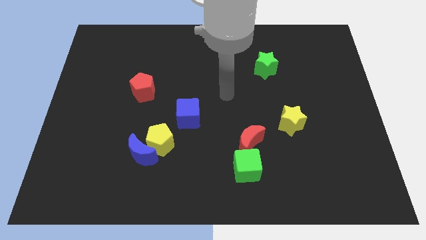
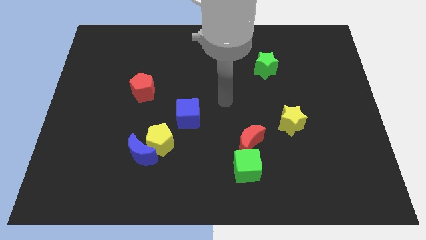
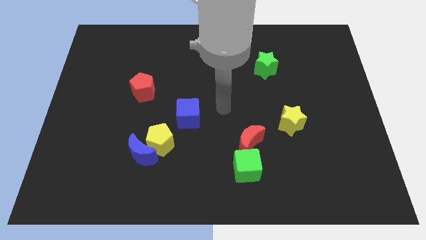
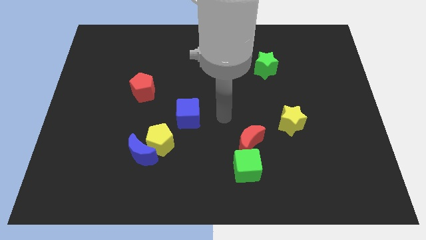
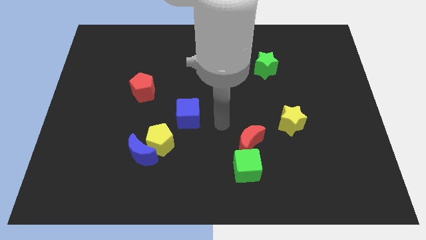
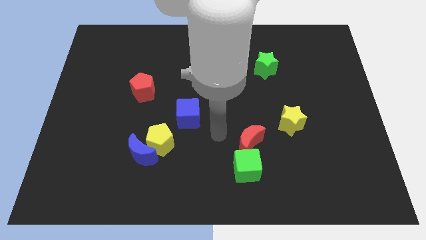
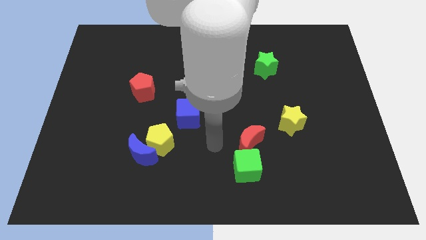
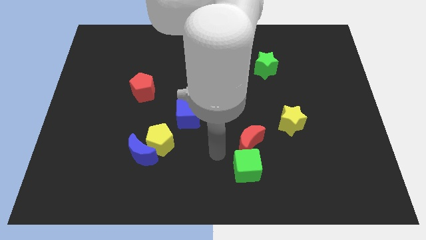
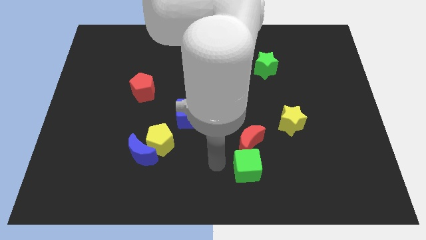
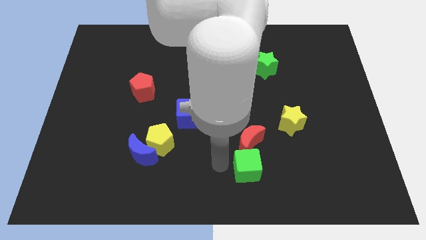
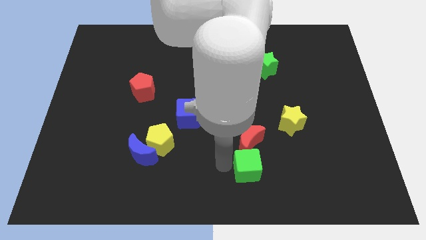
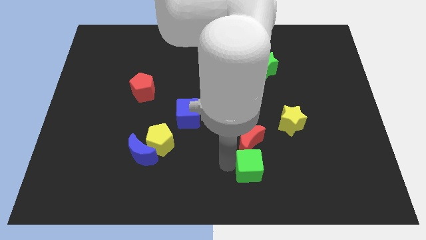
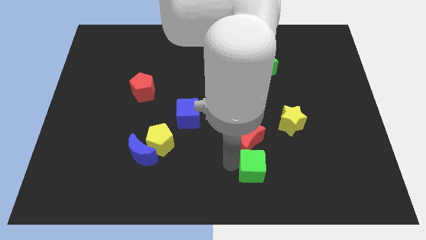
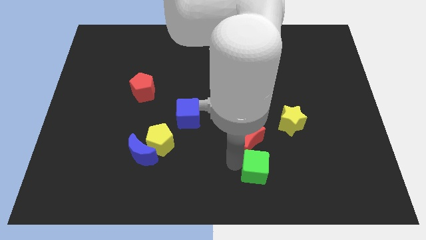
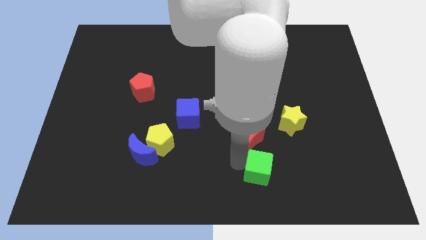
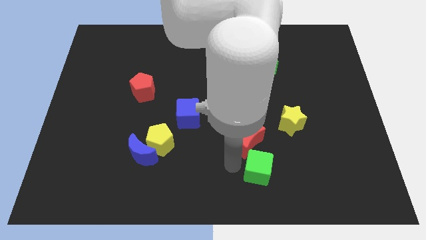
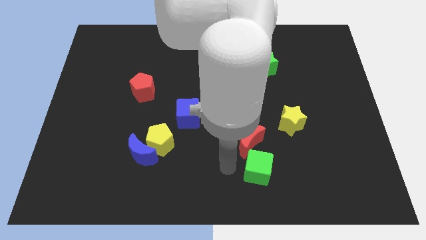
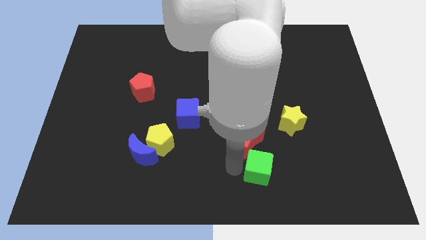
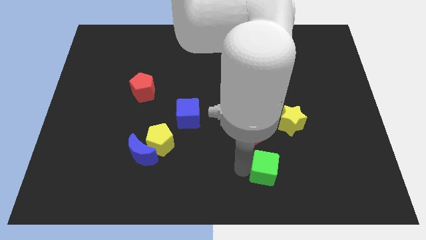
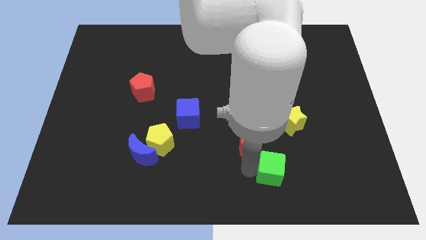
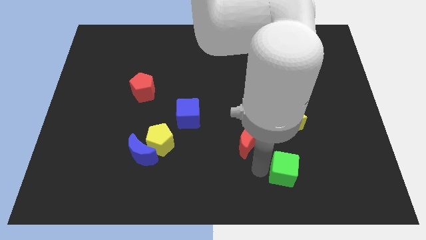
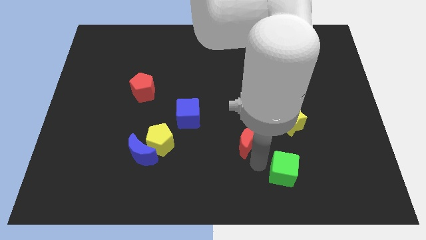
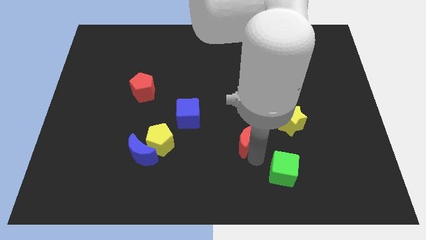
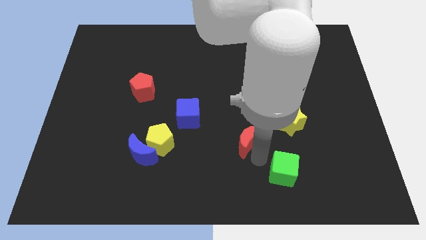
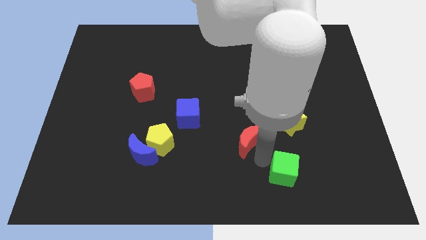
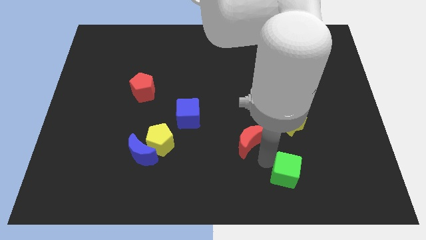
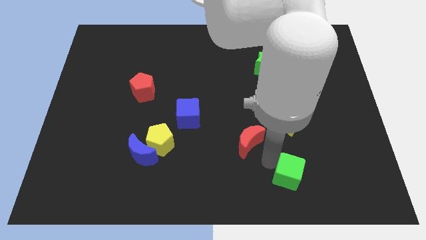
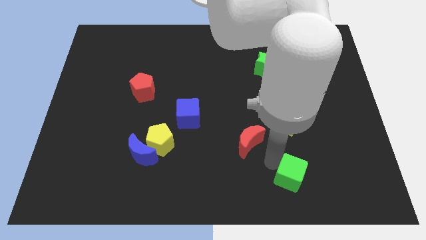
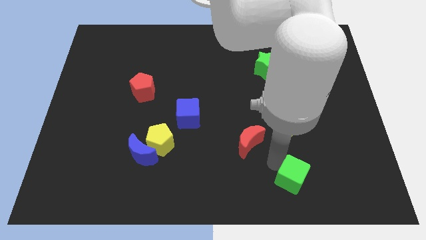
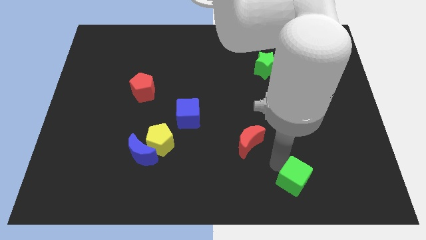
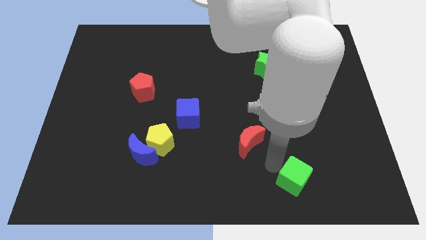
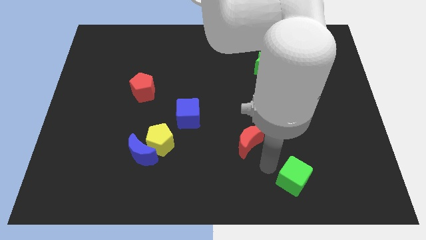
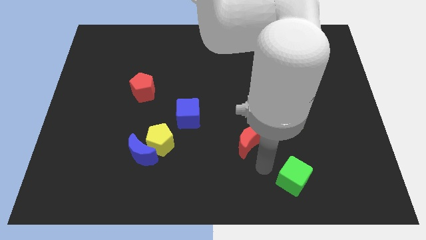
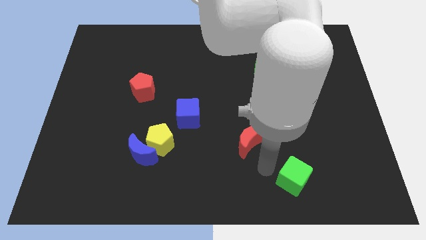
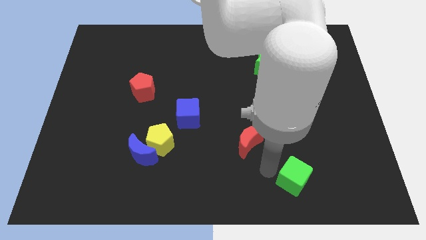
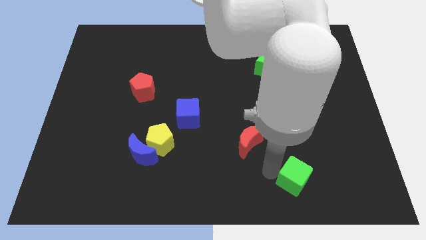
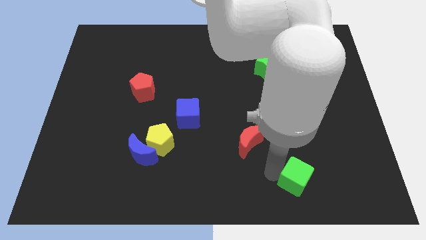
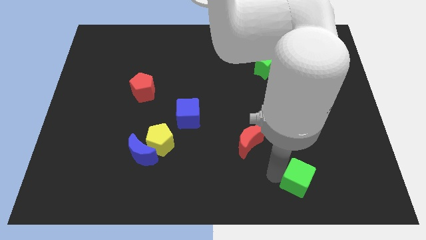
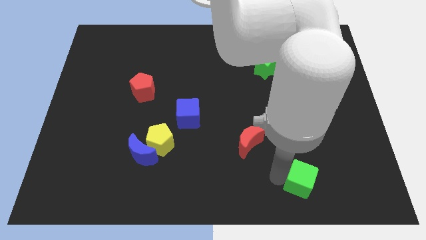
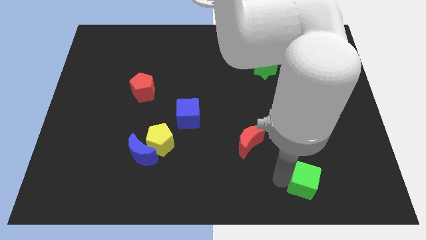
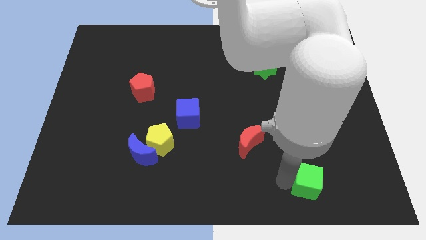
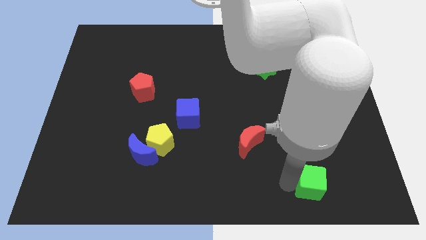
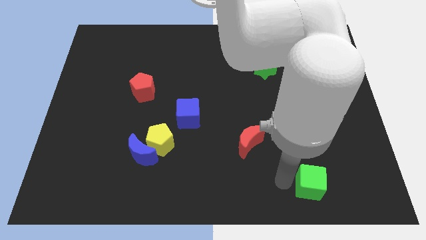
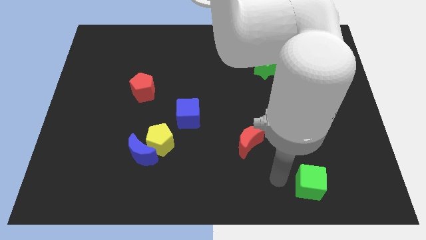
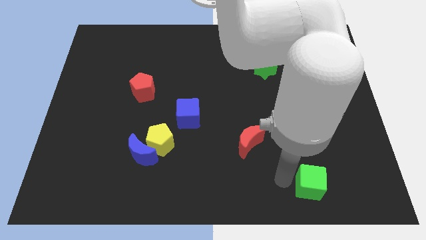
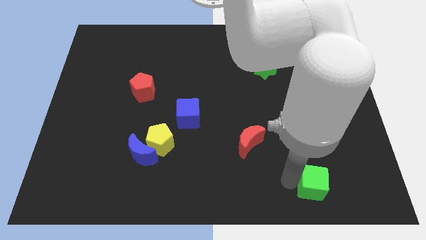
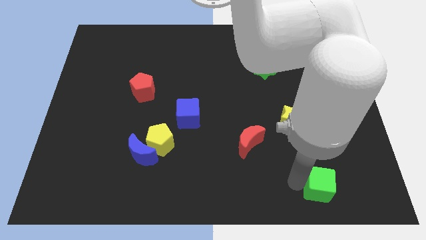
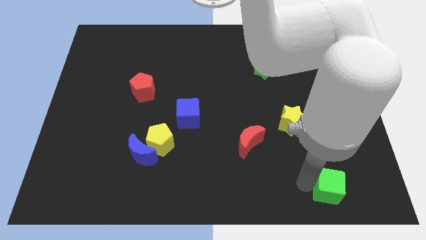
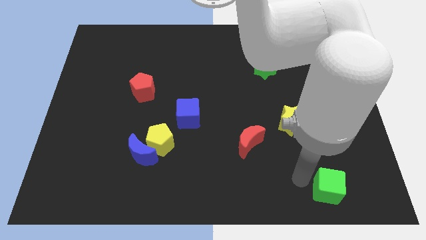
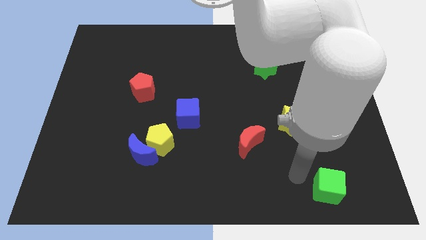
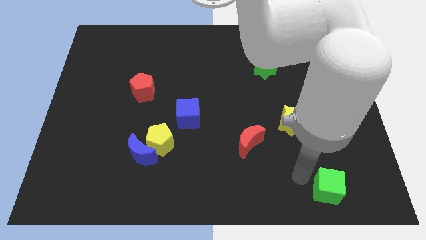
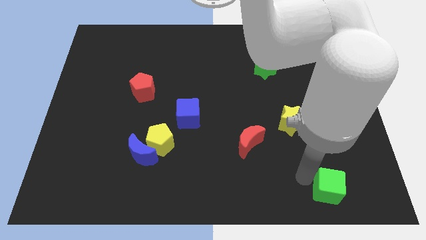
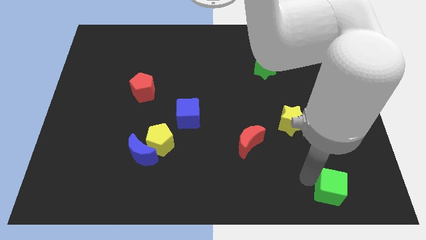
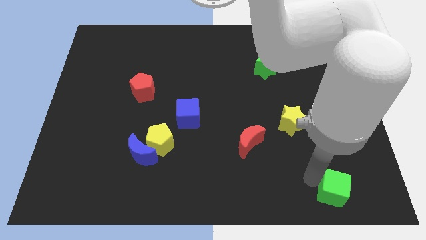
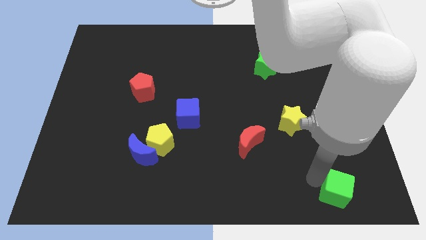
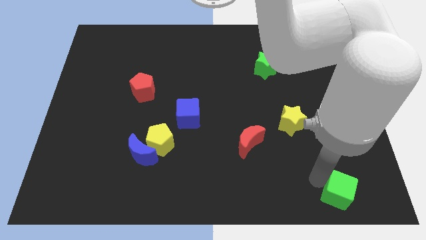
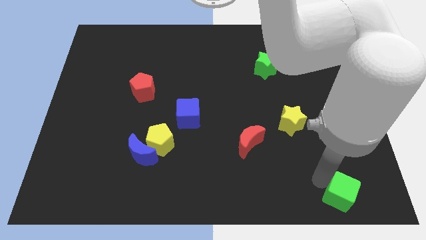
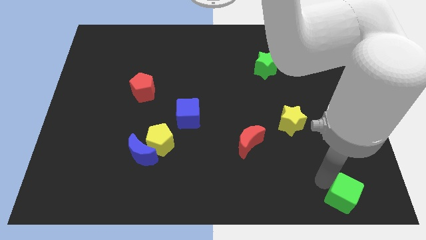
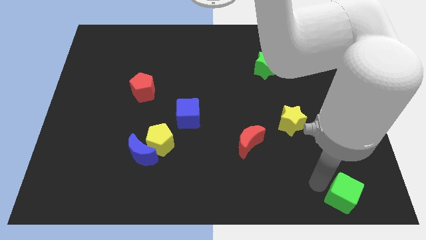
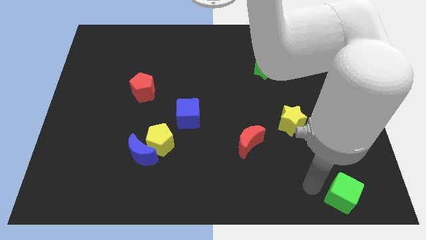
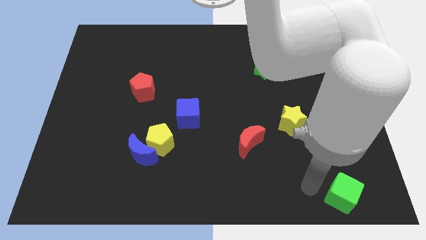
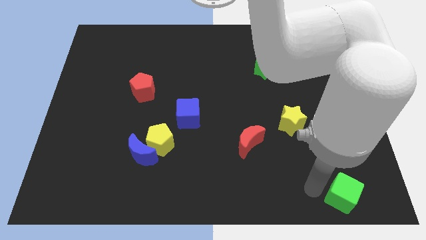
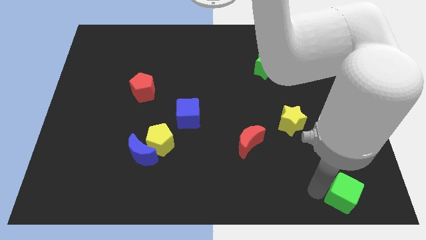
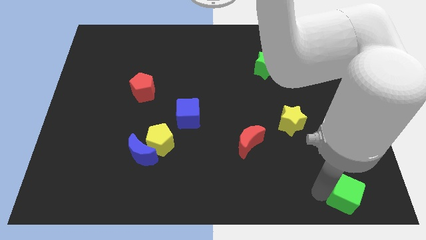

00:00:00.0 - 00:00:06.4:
slide the green cube to the lower right corner
